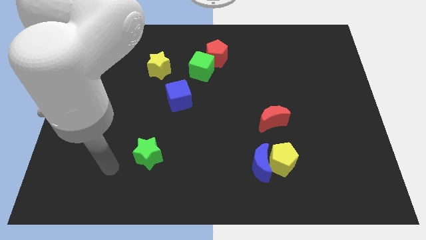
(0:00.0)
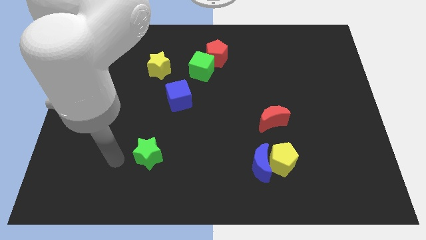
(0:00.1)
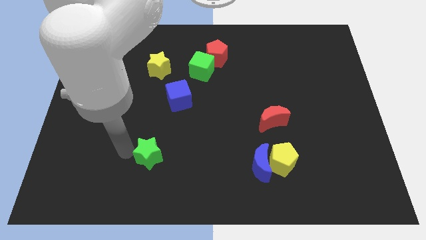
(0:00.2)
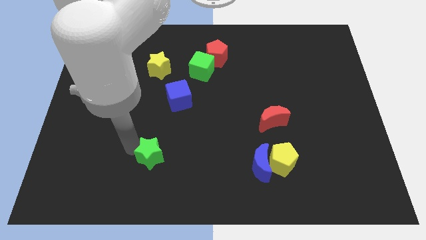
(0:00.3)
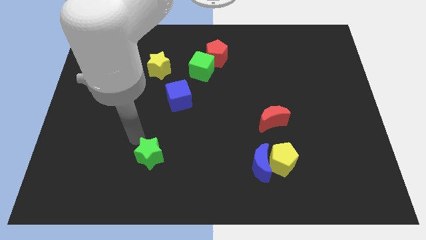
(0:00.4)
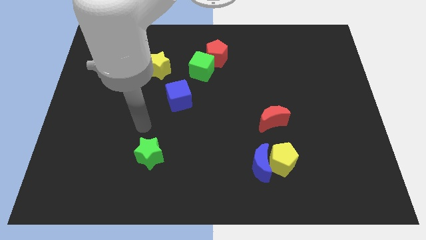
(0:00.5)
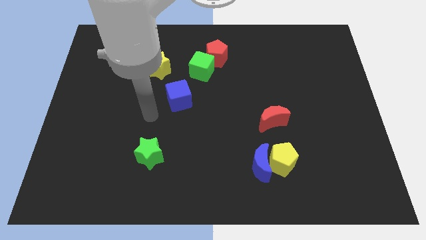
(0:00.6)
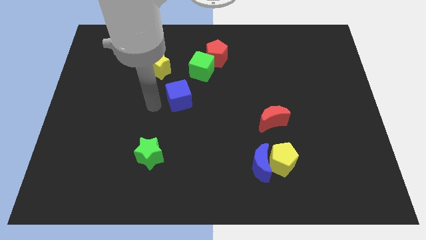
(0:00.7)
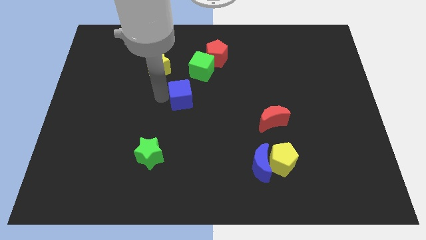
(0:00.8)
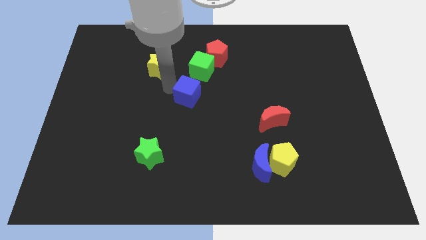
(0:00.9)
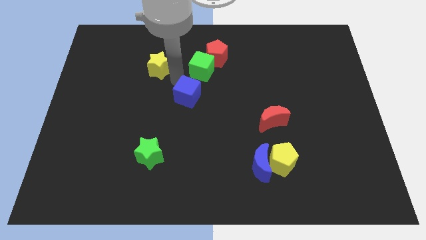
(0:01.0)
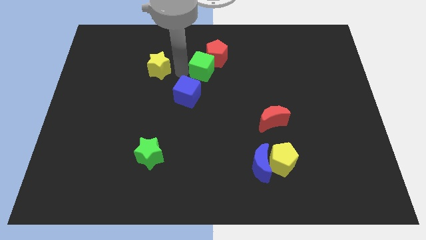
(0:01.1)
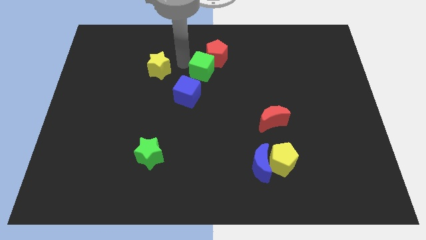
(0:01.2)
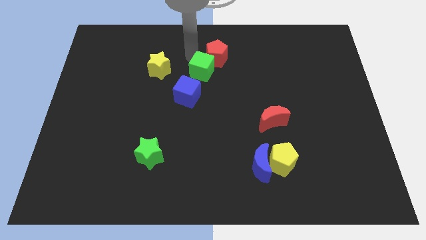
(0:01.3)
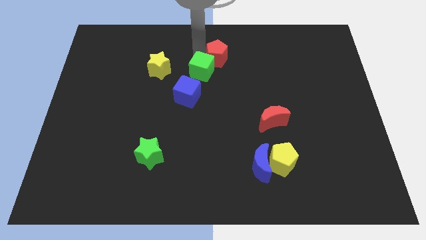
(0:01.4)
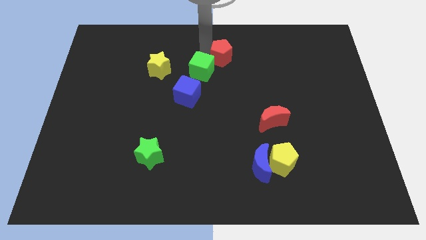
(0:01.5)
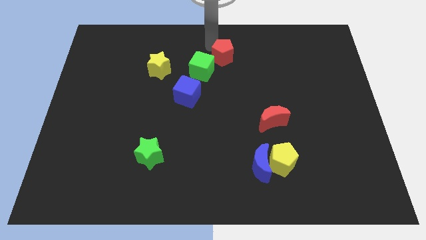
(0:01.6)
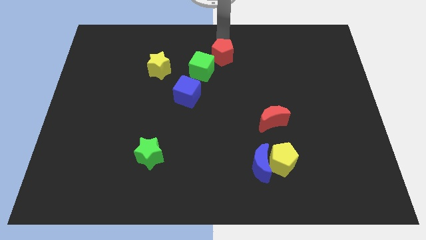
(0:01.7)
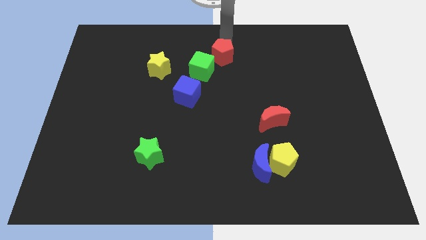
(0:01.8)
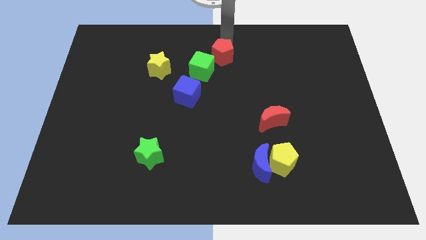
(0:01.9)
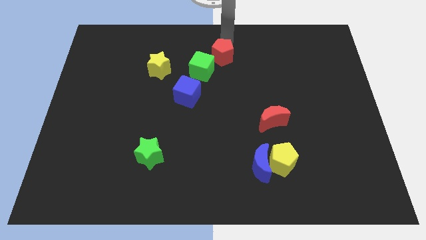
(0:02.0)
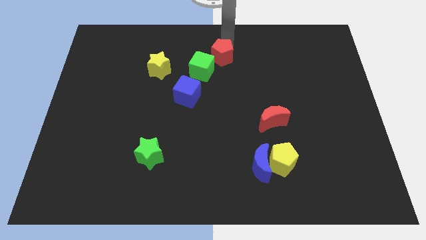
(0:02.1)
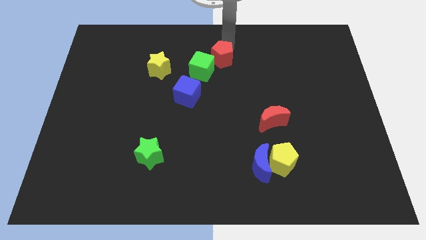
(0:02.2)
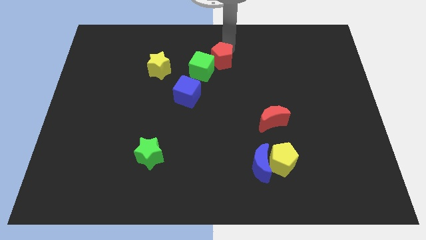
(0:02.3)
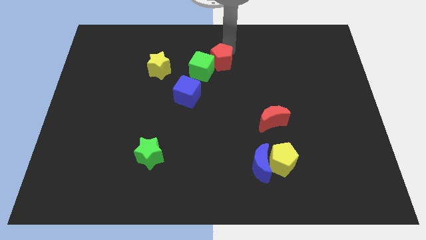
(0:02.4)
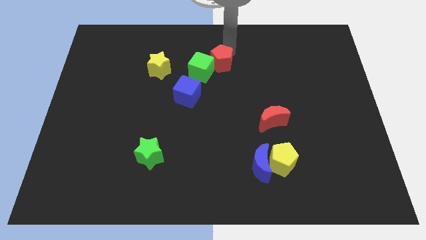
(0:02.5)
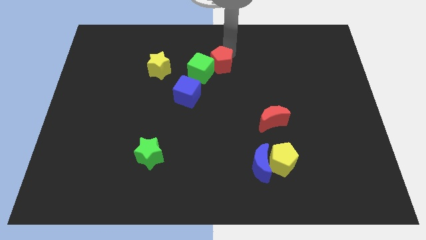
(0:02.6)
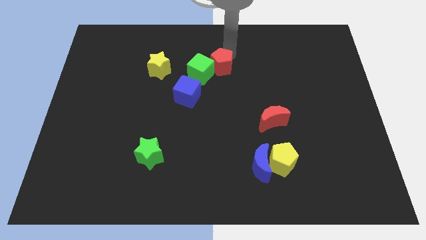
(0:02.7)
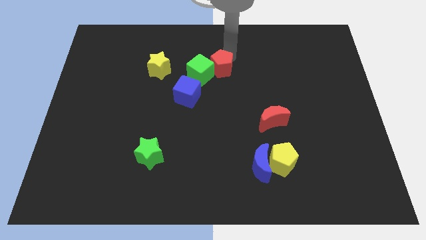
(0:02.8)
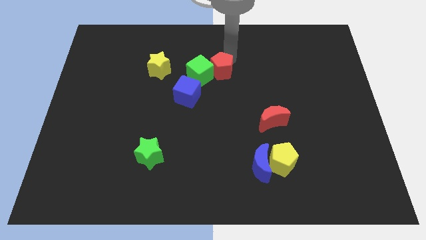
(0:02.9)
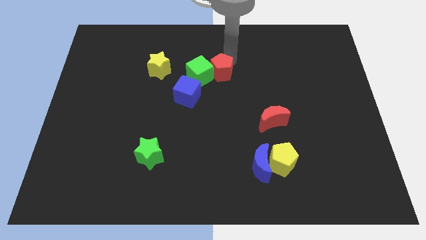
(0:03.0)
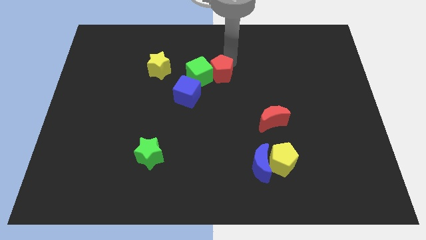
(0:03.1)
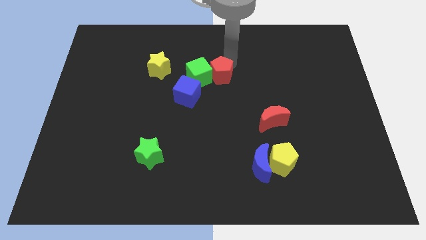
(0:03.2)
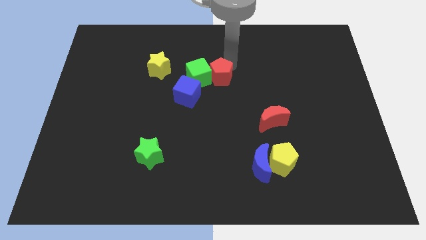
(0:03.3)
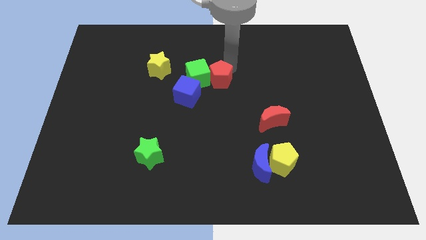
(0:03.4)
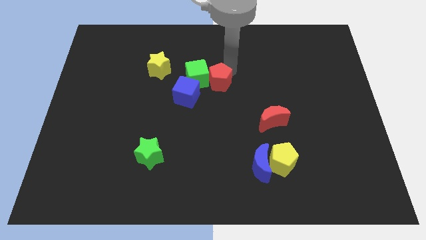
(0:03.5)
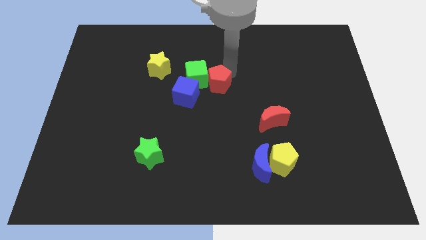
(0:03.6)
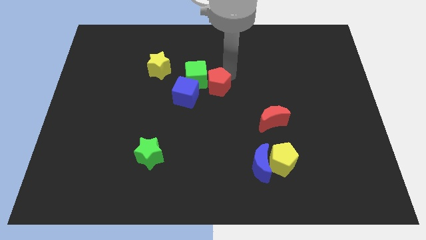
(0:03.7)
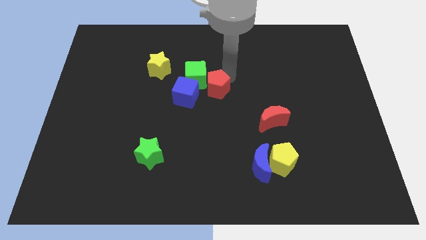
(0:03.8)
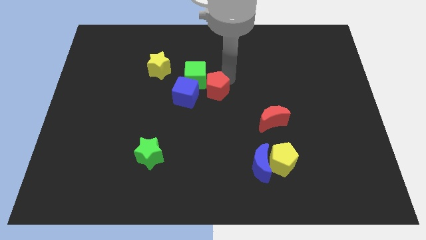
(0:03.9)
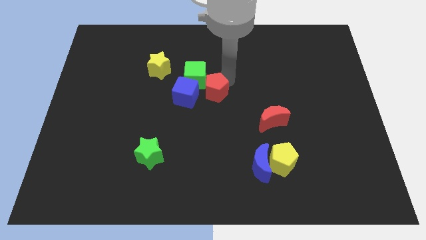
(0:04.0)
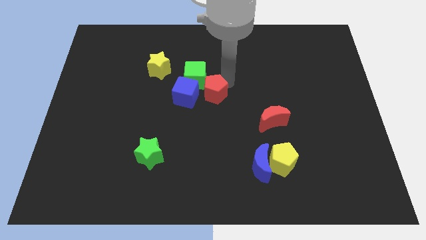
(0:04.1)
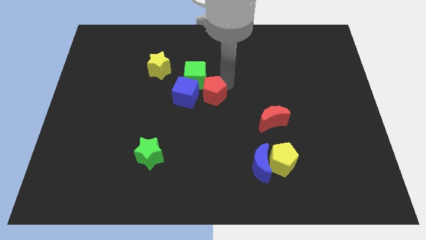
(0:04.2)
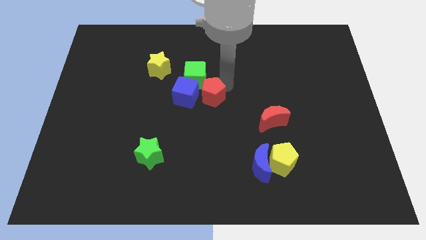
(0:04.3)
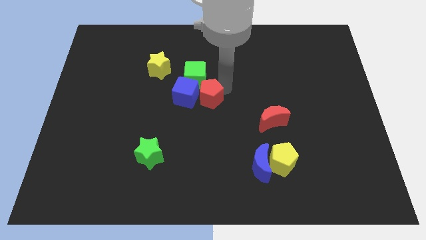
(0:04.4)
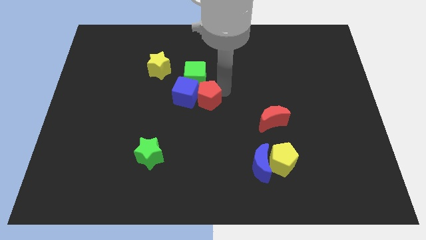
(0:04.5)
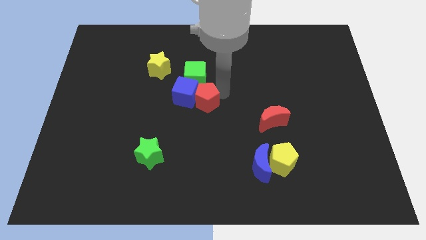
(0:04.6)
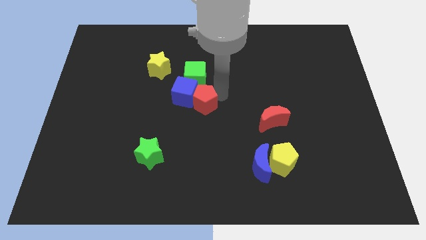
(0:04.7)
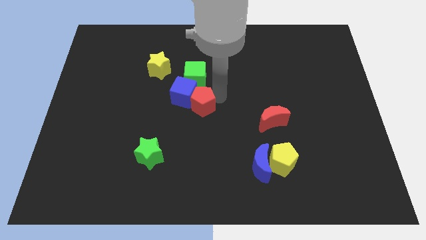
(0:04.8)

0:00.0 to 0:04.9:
move the red pentagon below the blue cube

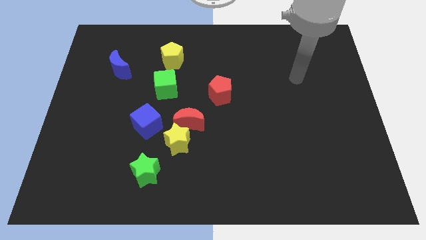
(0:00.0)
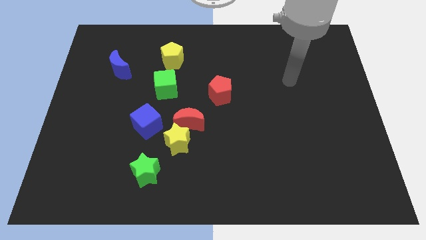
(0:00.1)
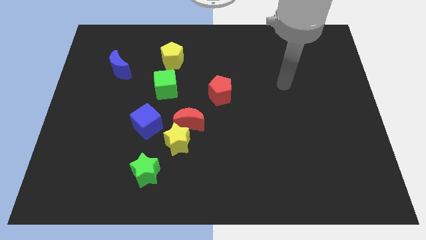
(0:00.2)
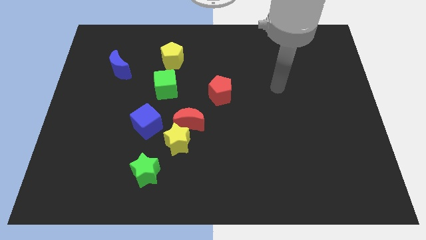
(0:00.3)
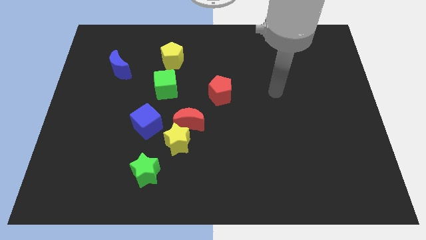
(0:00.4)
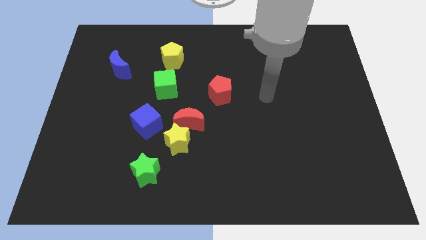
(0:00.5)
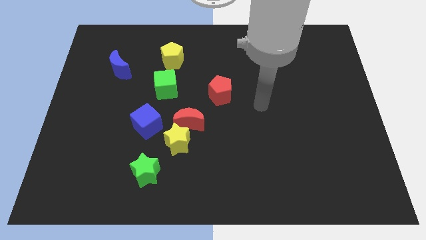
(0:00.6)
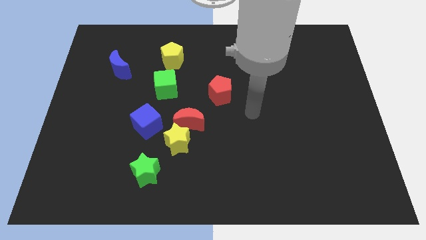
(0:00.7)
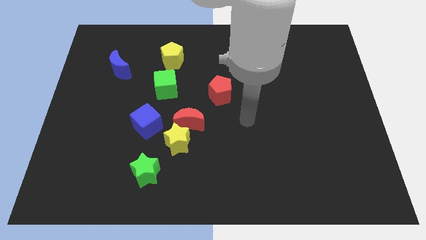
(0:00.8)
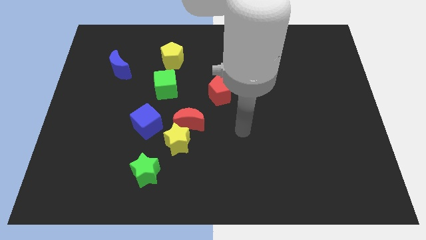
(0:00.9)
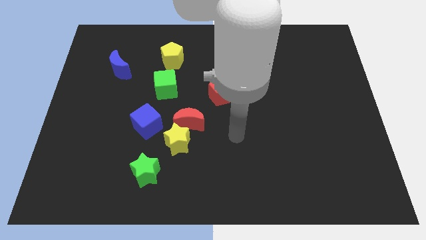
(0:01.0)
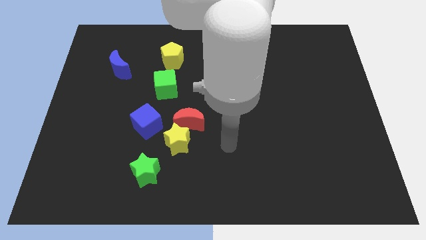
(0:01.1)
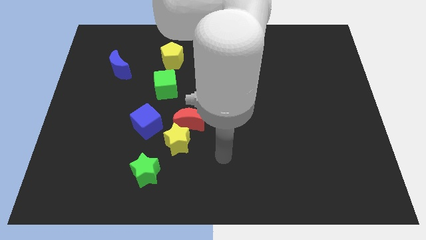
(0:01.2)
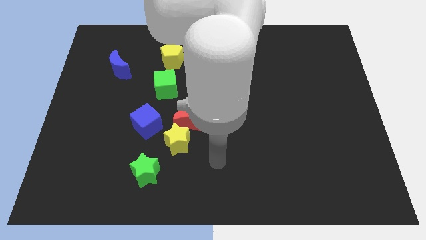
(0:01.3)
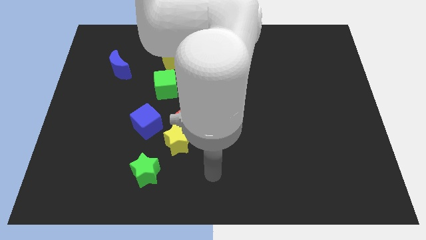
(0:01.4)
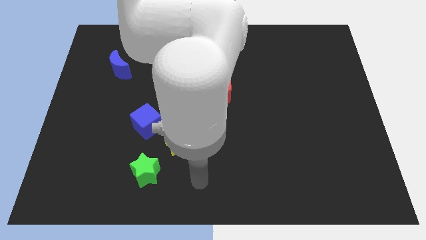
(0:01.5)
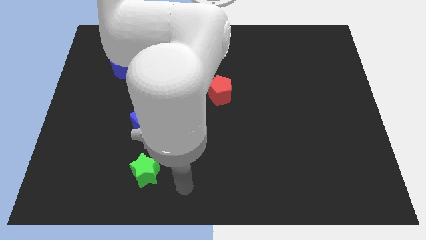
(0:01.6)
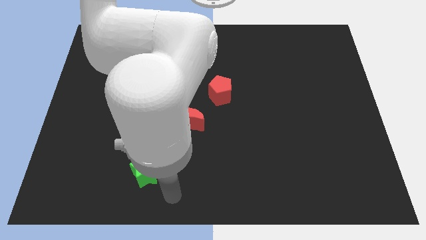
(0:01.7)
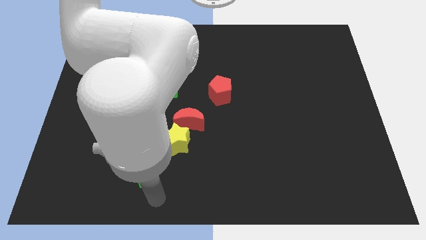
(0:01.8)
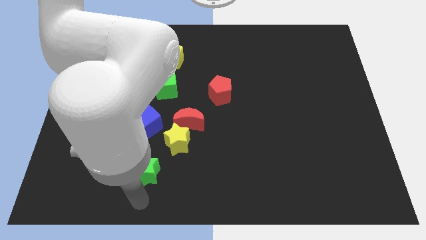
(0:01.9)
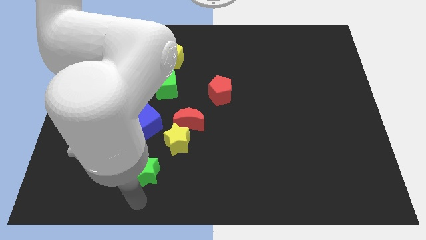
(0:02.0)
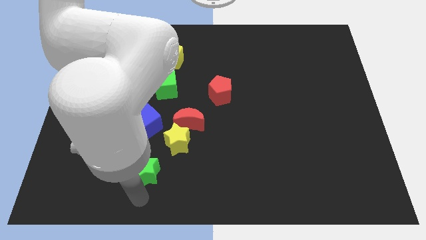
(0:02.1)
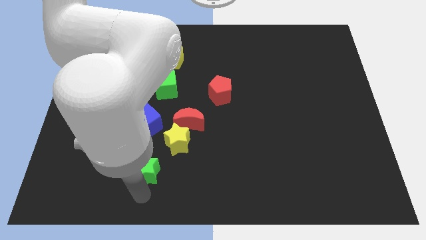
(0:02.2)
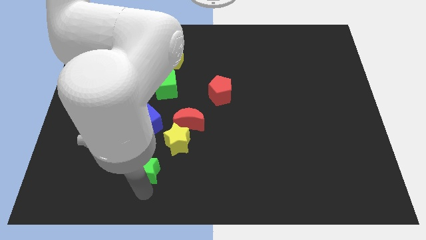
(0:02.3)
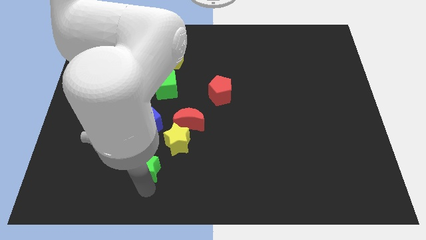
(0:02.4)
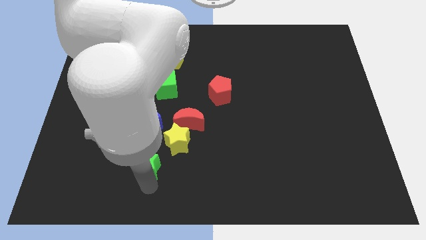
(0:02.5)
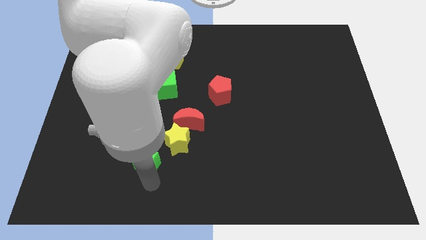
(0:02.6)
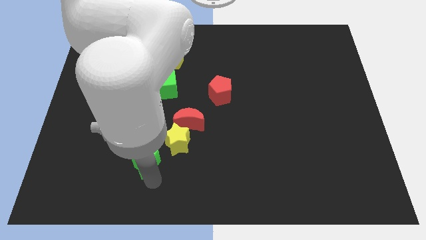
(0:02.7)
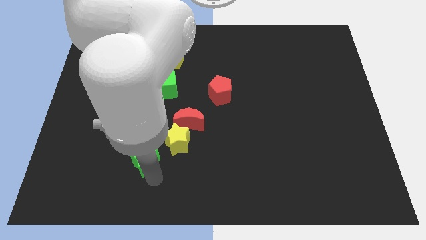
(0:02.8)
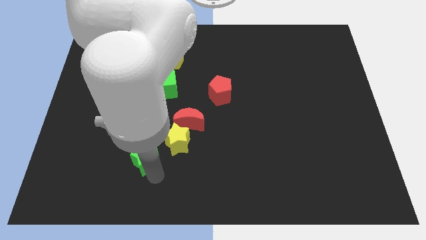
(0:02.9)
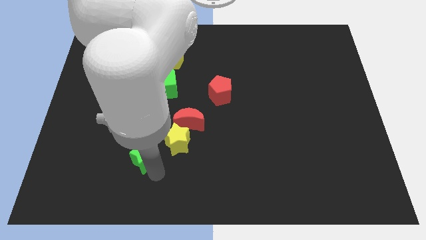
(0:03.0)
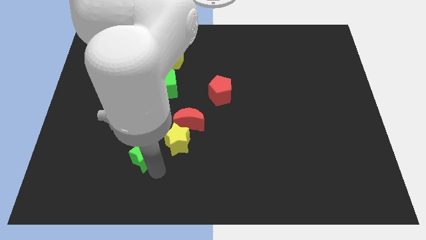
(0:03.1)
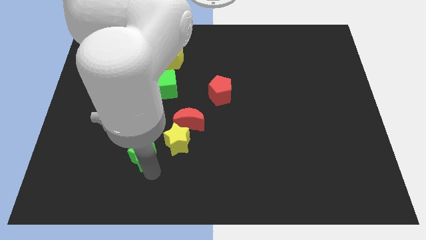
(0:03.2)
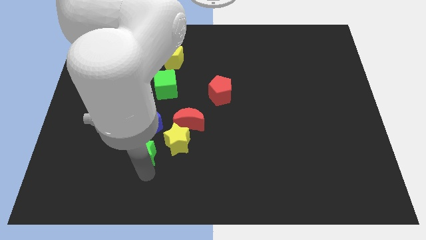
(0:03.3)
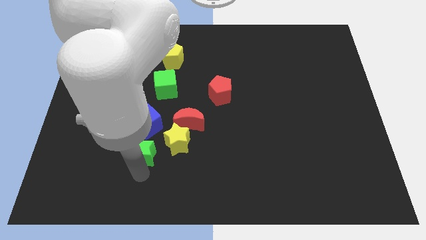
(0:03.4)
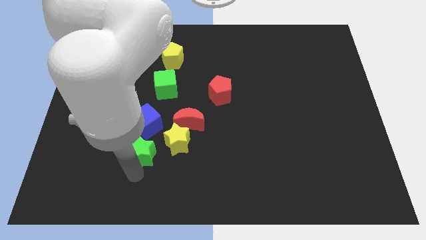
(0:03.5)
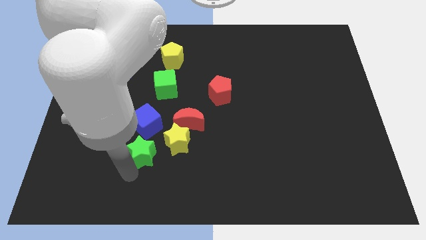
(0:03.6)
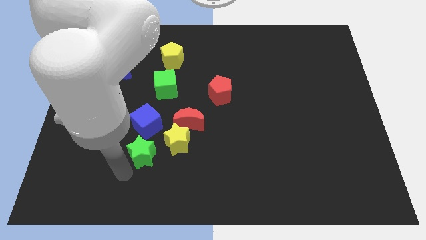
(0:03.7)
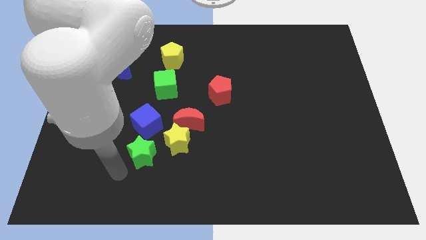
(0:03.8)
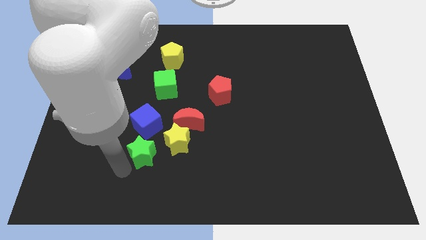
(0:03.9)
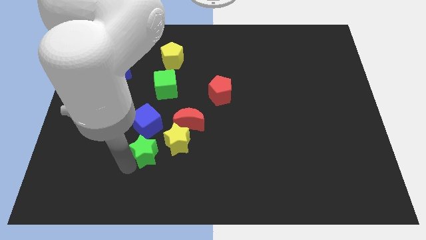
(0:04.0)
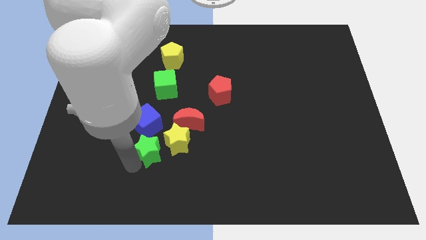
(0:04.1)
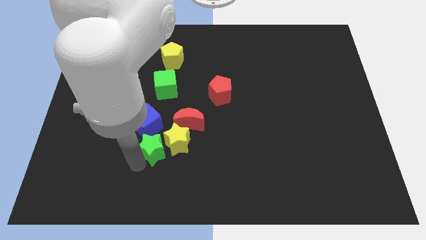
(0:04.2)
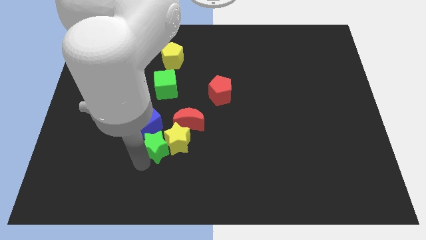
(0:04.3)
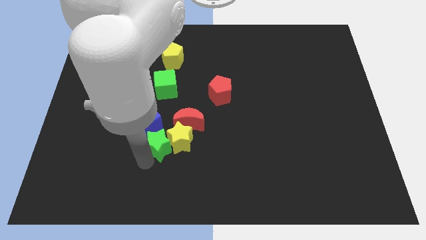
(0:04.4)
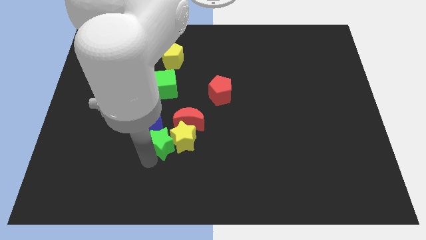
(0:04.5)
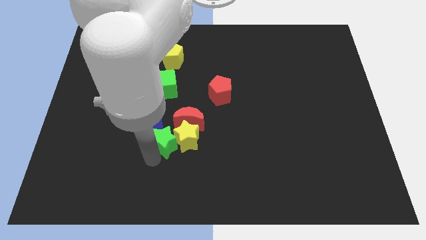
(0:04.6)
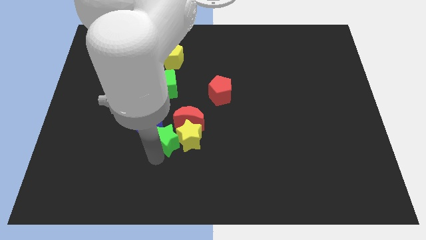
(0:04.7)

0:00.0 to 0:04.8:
move the green star to the bottom of the green cube
